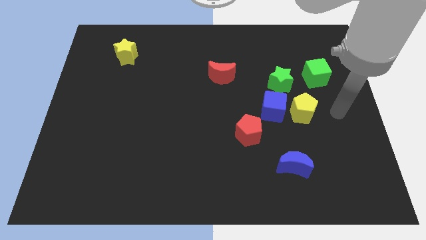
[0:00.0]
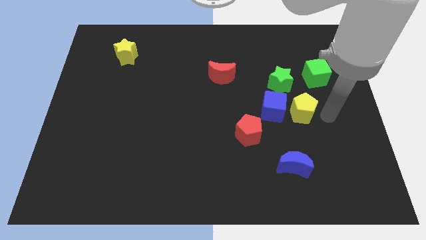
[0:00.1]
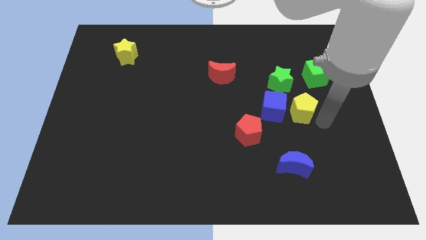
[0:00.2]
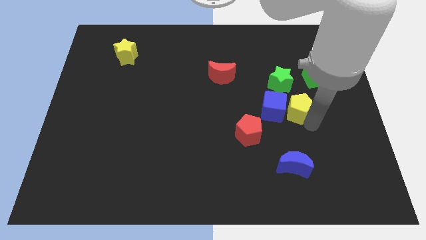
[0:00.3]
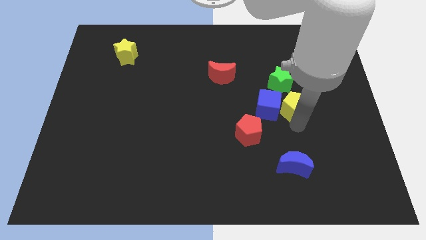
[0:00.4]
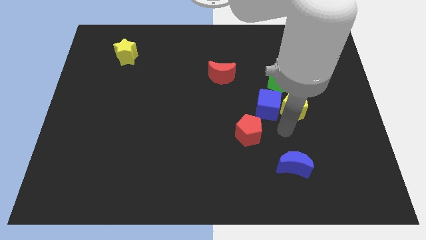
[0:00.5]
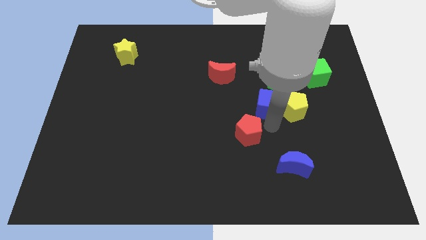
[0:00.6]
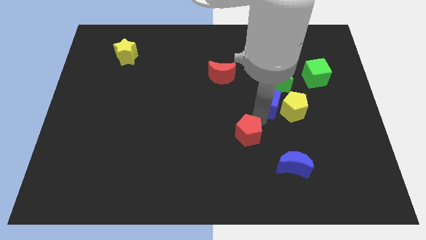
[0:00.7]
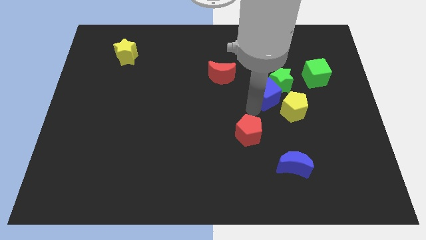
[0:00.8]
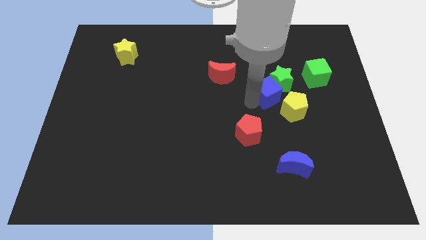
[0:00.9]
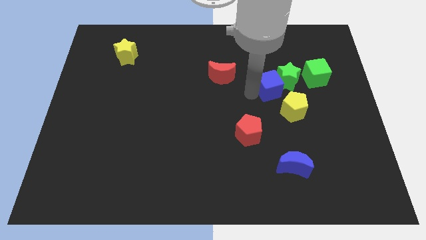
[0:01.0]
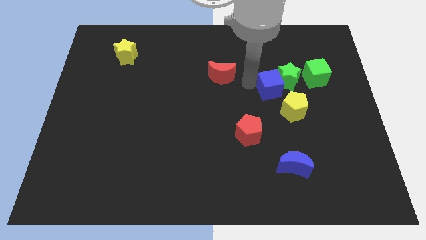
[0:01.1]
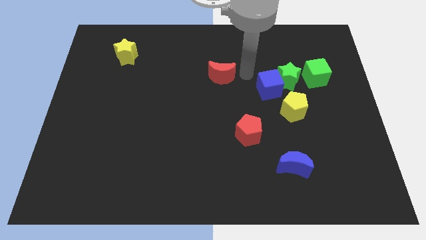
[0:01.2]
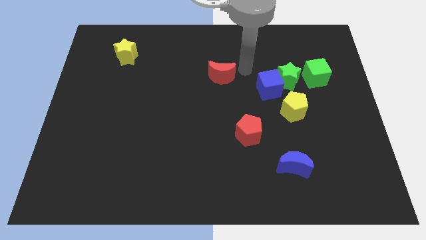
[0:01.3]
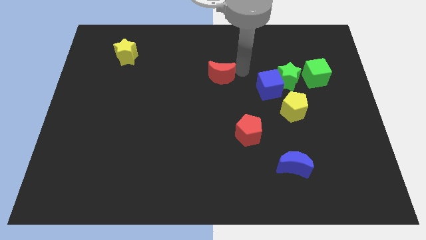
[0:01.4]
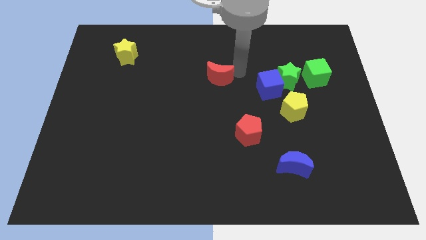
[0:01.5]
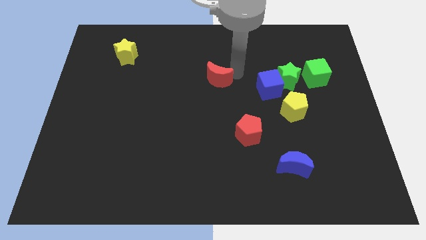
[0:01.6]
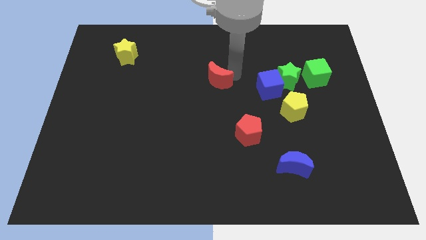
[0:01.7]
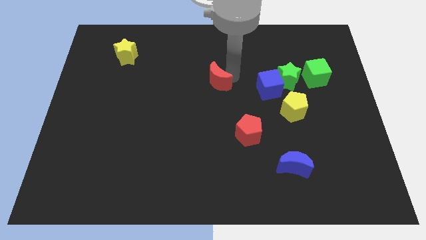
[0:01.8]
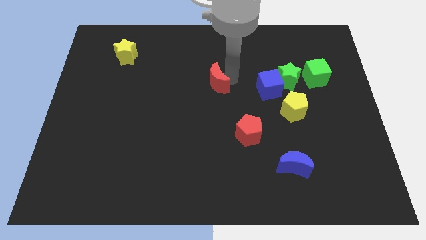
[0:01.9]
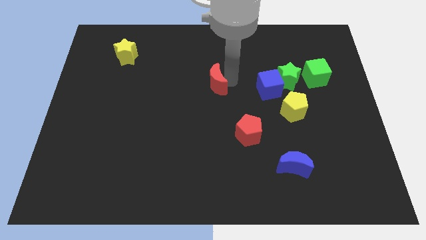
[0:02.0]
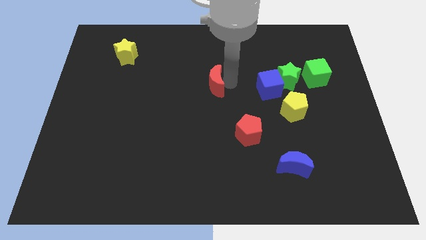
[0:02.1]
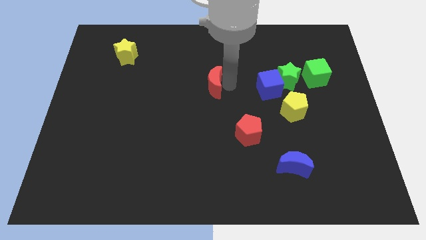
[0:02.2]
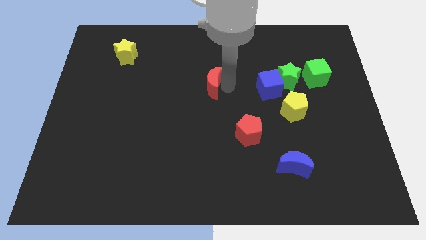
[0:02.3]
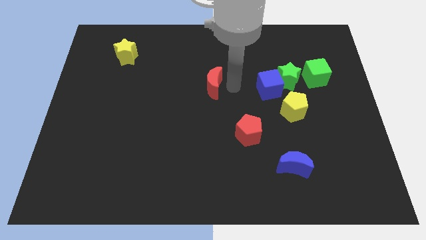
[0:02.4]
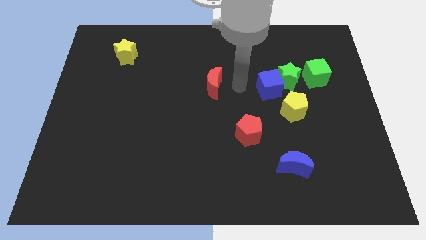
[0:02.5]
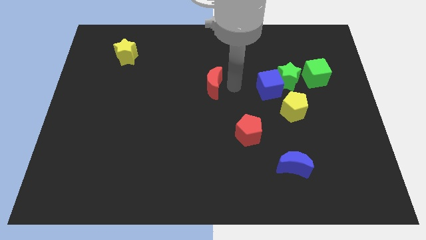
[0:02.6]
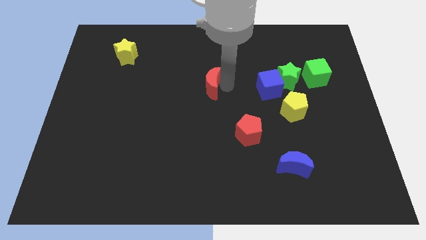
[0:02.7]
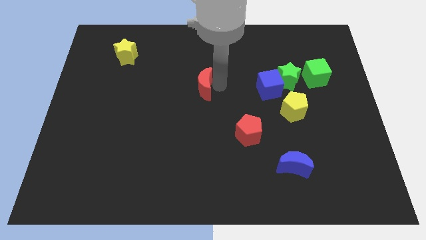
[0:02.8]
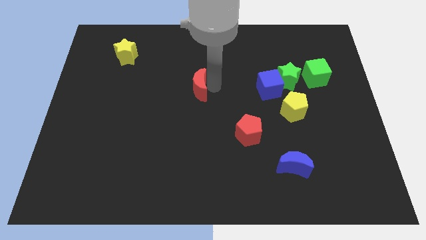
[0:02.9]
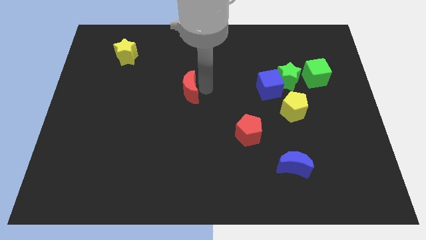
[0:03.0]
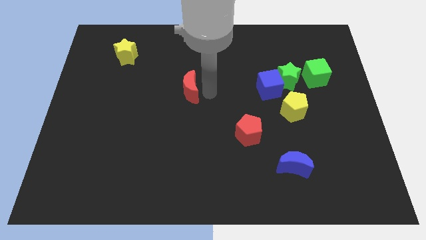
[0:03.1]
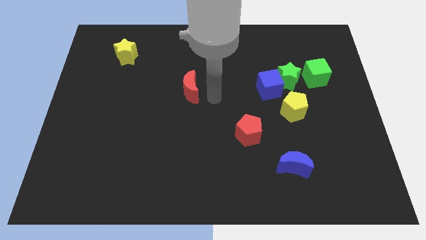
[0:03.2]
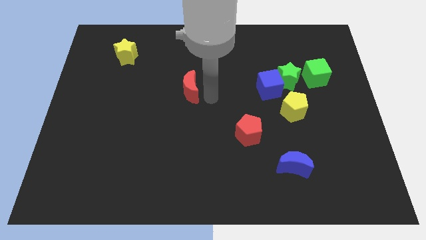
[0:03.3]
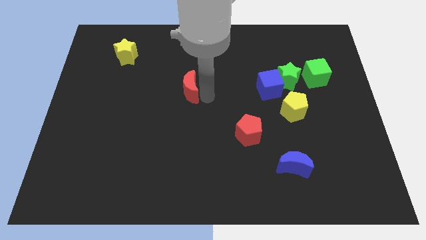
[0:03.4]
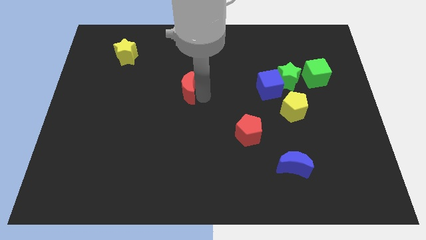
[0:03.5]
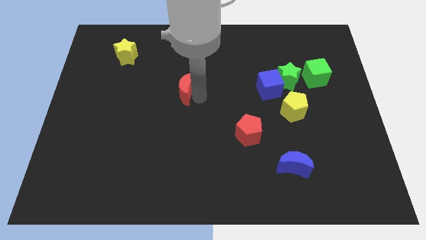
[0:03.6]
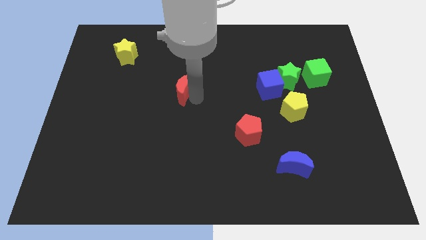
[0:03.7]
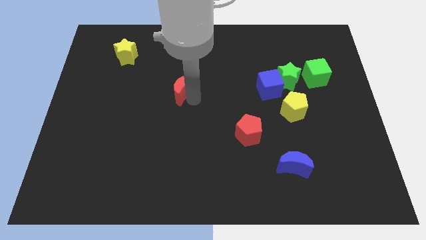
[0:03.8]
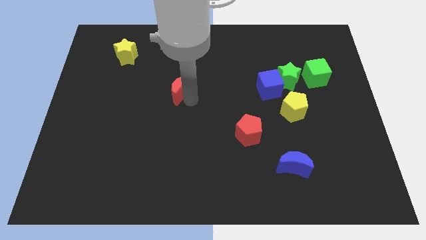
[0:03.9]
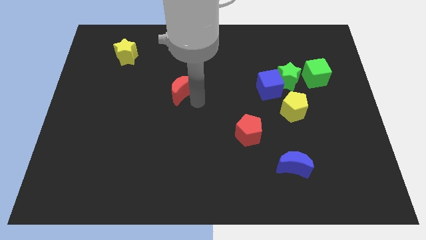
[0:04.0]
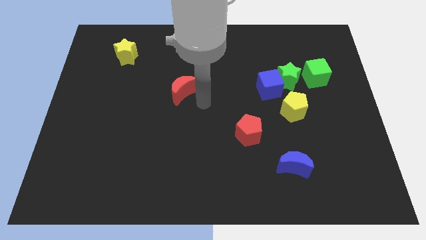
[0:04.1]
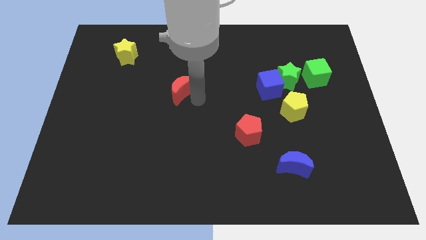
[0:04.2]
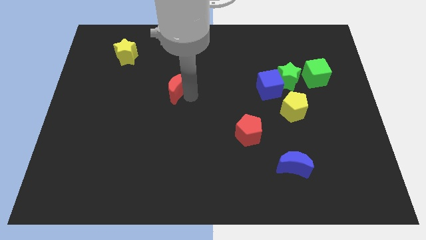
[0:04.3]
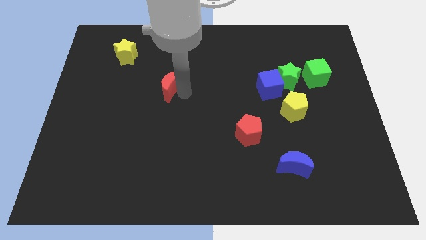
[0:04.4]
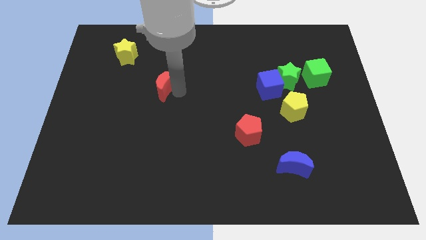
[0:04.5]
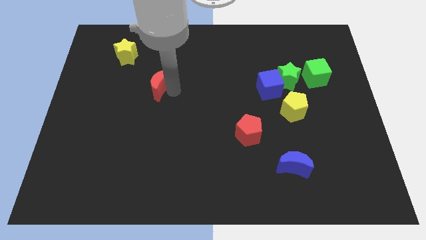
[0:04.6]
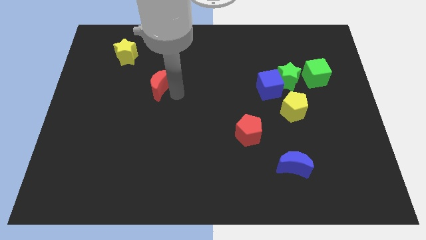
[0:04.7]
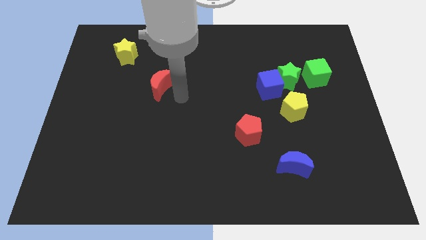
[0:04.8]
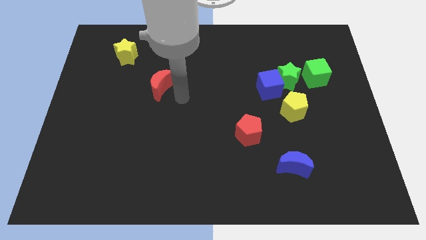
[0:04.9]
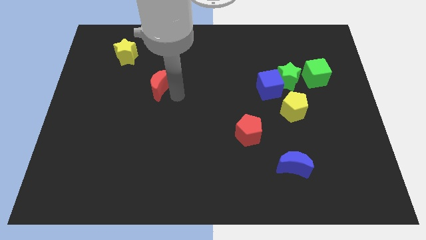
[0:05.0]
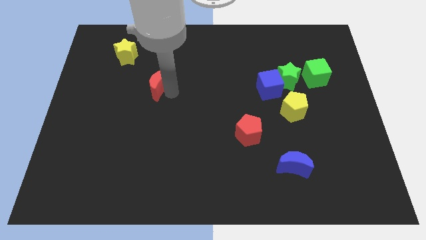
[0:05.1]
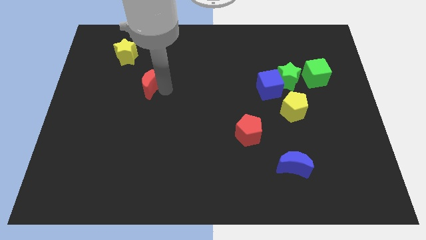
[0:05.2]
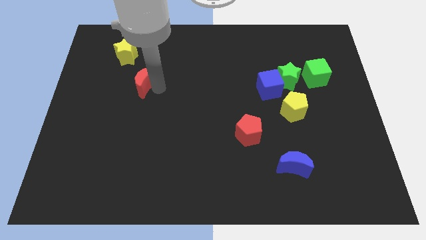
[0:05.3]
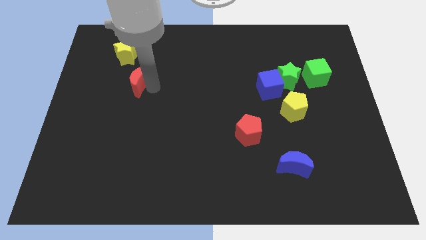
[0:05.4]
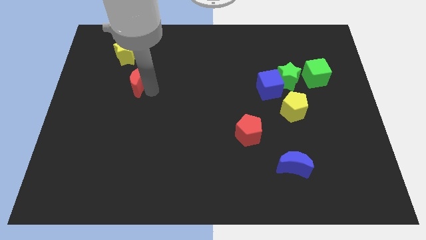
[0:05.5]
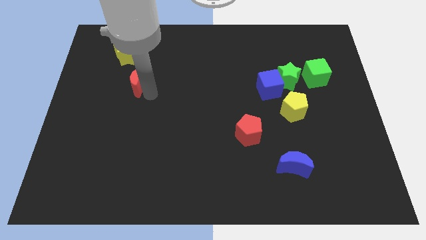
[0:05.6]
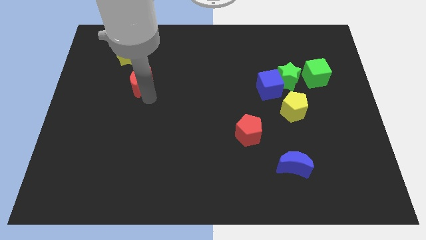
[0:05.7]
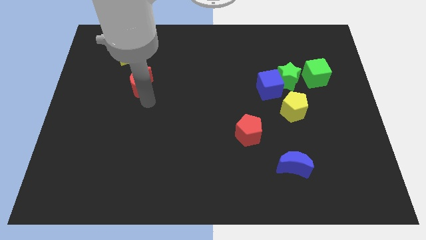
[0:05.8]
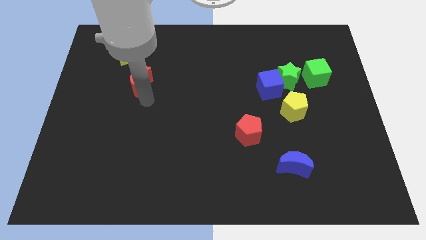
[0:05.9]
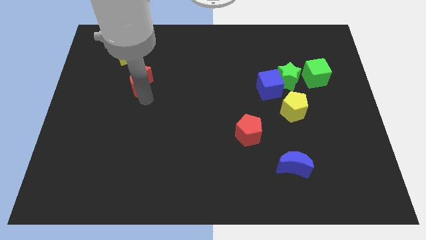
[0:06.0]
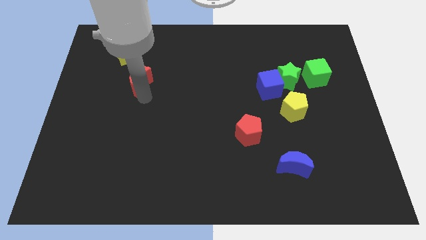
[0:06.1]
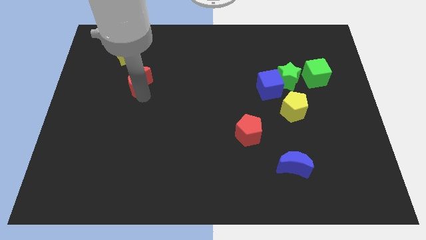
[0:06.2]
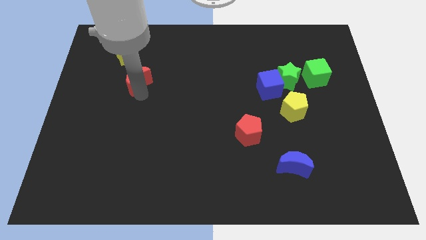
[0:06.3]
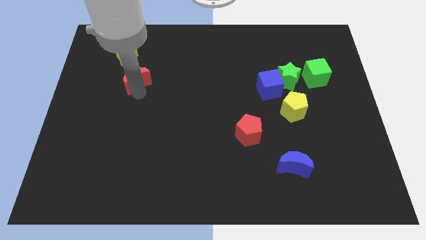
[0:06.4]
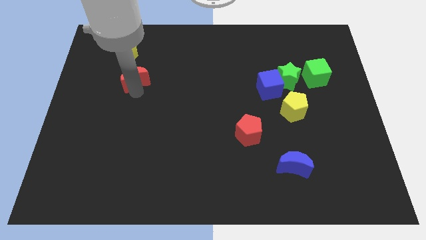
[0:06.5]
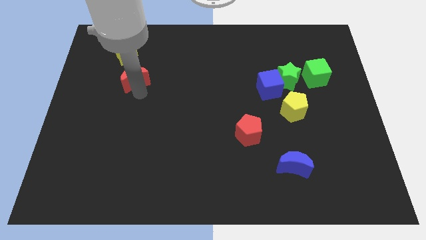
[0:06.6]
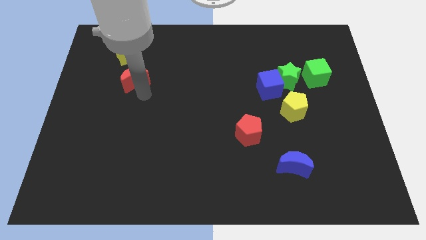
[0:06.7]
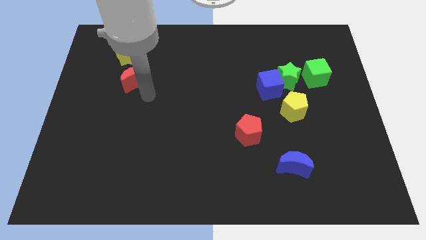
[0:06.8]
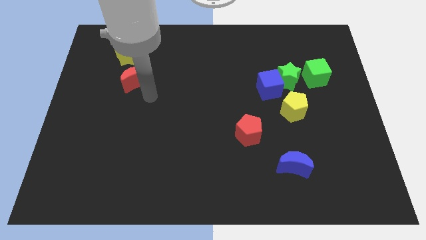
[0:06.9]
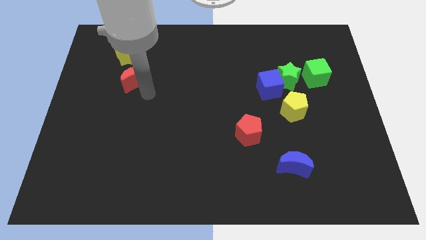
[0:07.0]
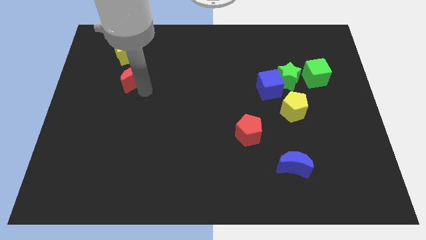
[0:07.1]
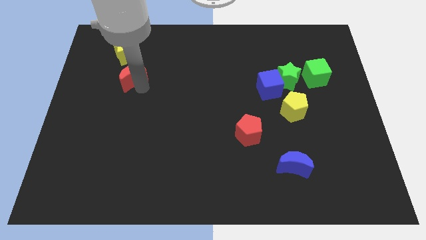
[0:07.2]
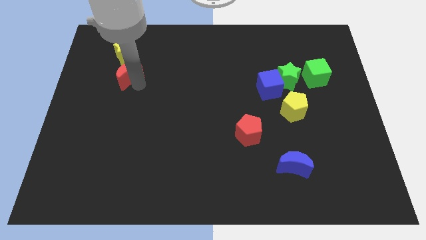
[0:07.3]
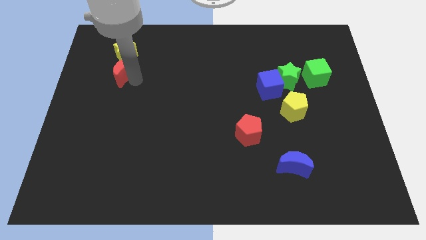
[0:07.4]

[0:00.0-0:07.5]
move the red moon to the bottom left of the yellow star
